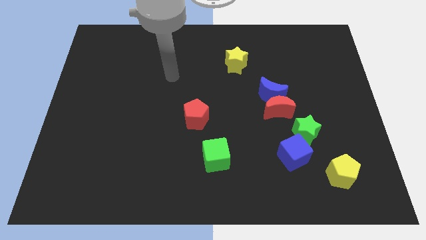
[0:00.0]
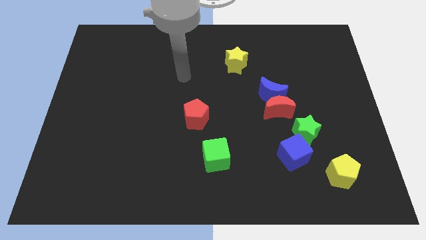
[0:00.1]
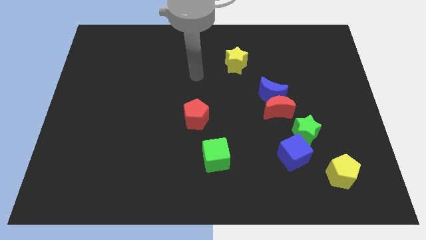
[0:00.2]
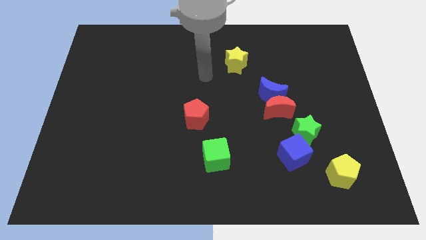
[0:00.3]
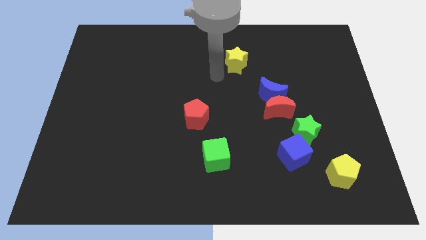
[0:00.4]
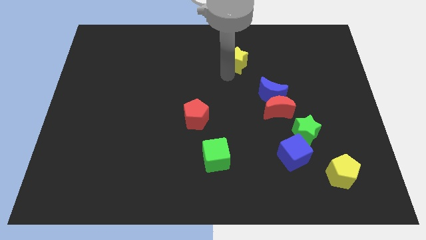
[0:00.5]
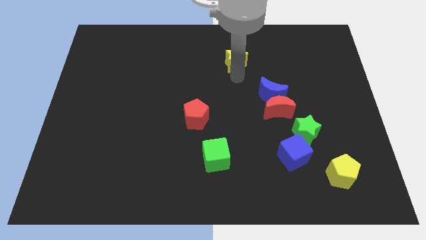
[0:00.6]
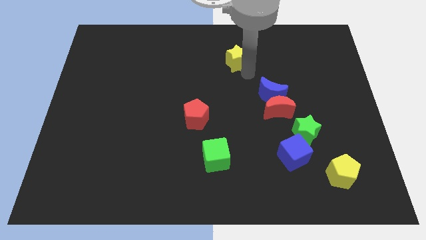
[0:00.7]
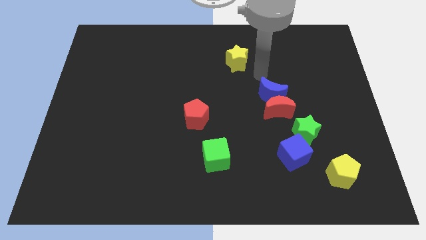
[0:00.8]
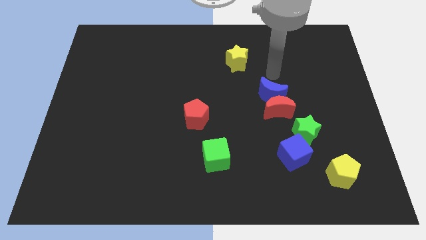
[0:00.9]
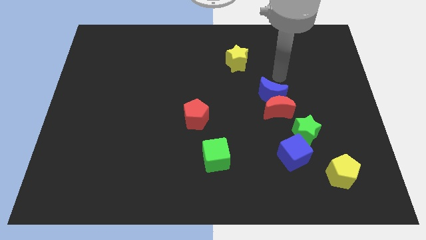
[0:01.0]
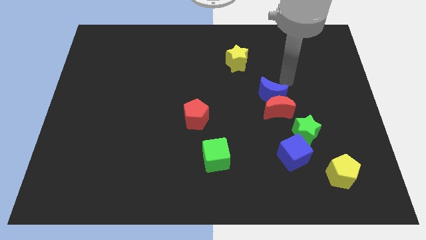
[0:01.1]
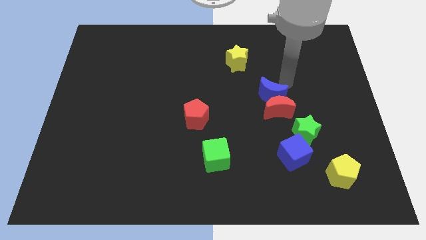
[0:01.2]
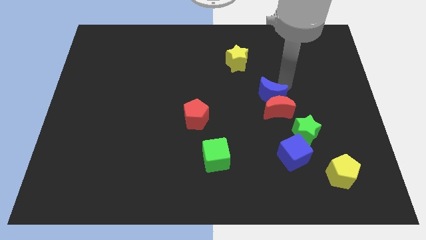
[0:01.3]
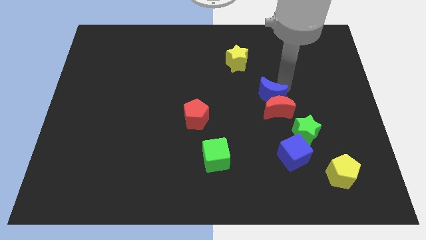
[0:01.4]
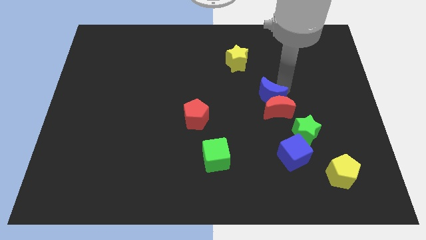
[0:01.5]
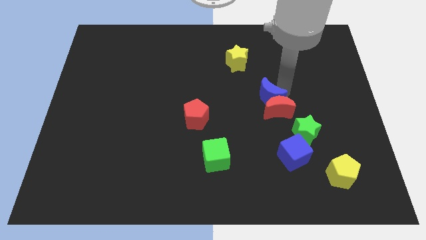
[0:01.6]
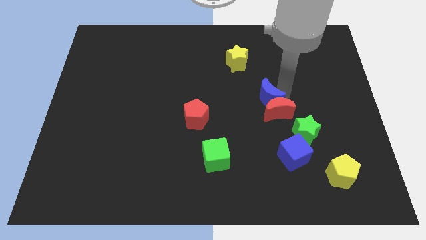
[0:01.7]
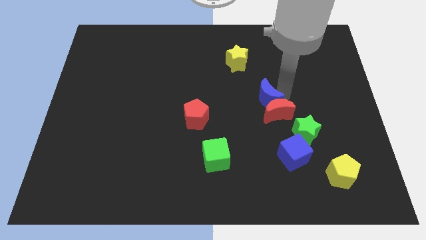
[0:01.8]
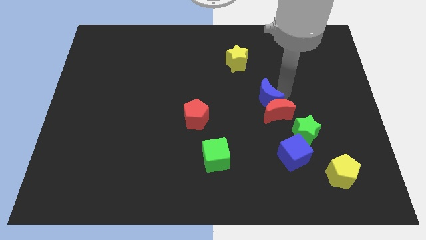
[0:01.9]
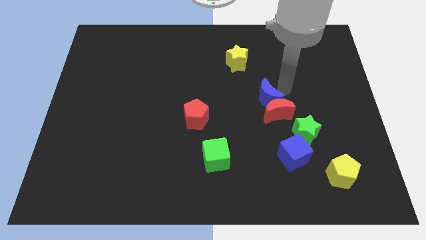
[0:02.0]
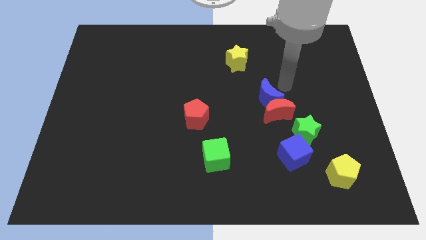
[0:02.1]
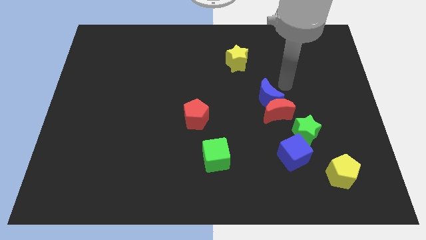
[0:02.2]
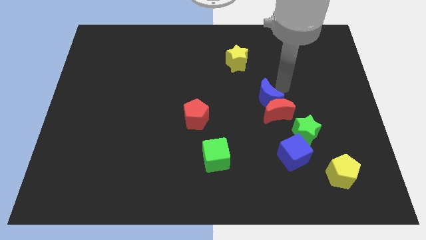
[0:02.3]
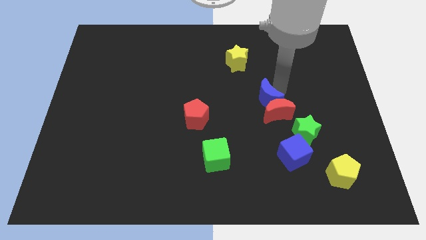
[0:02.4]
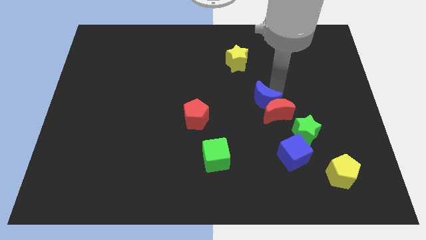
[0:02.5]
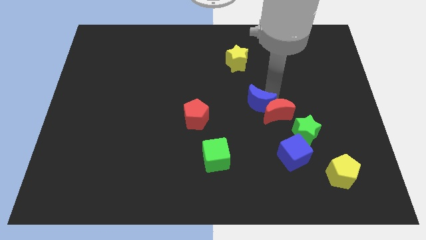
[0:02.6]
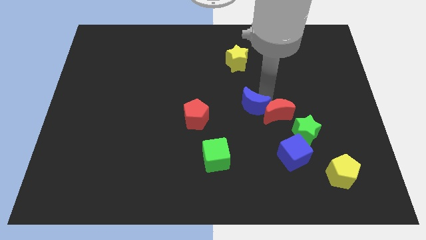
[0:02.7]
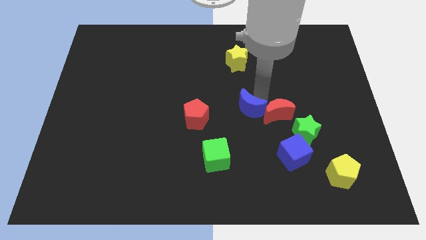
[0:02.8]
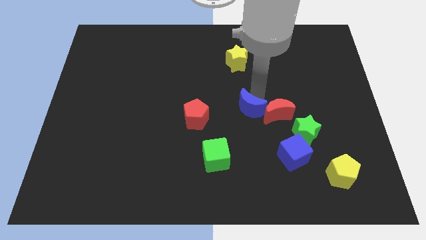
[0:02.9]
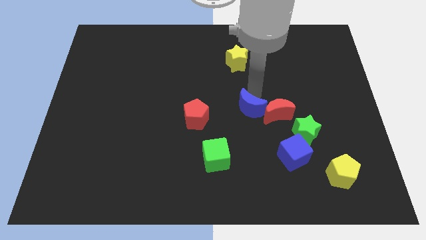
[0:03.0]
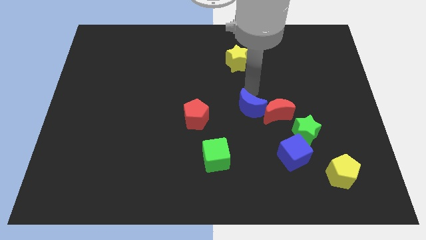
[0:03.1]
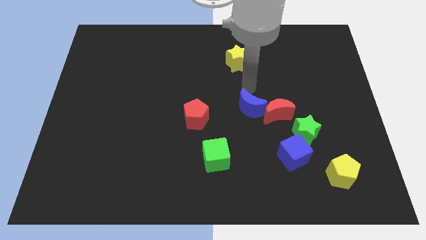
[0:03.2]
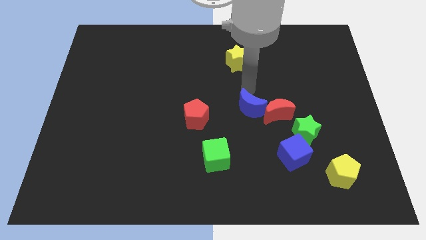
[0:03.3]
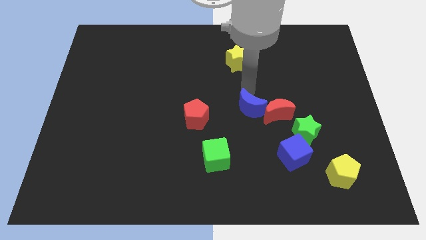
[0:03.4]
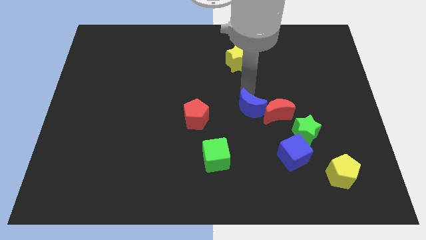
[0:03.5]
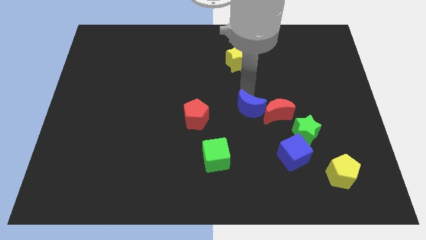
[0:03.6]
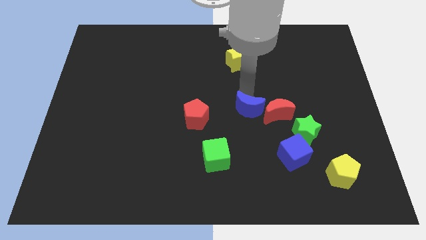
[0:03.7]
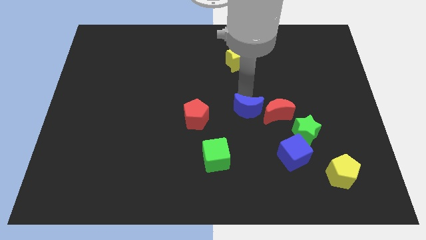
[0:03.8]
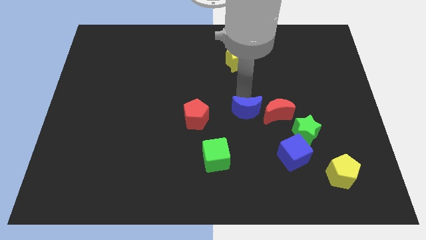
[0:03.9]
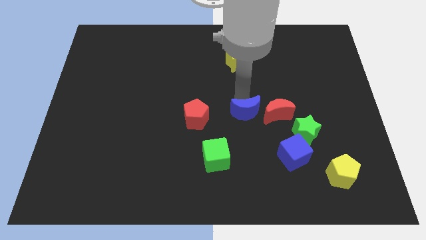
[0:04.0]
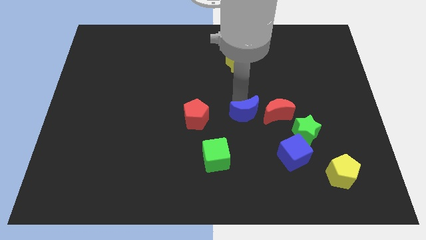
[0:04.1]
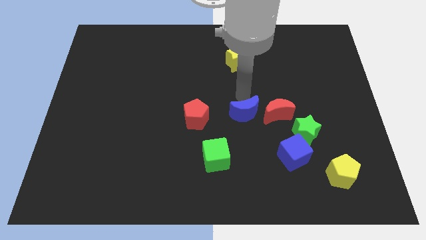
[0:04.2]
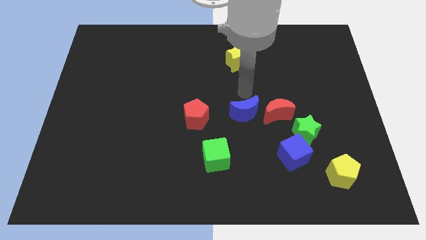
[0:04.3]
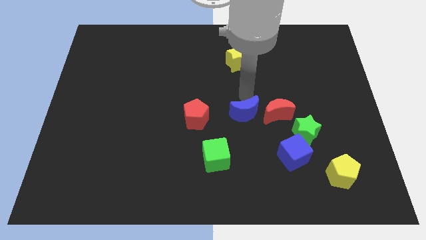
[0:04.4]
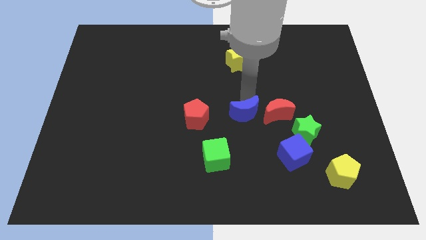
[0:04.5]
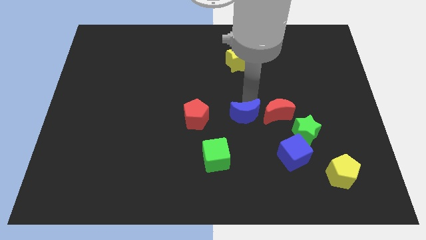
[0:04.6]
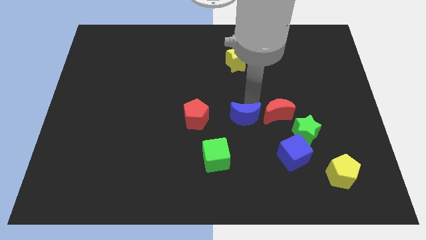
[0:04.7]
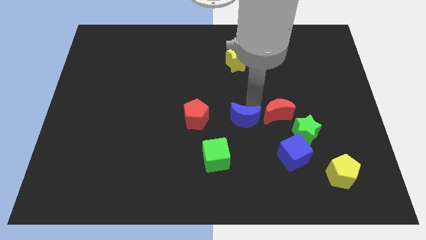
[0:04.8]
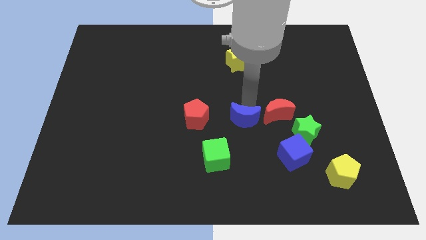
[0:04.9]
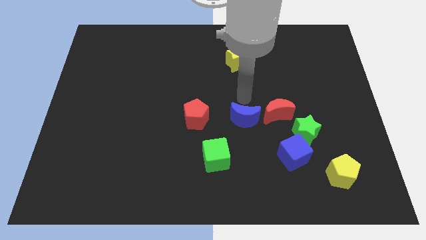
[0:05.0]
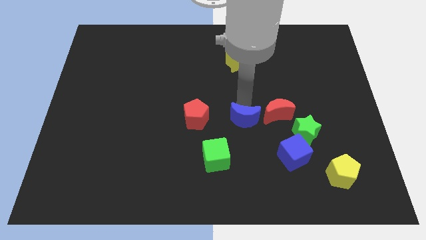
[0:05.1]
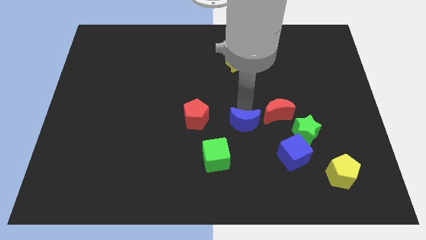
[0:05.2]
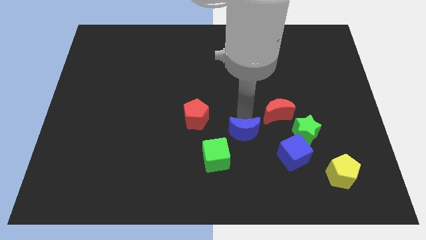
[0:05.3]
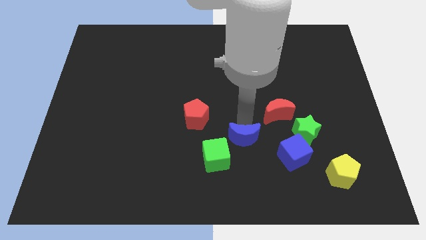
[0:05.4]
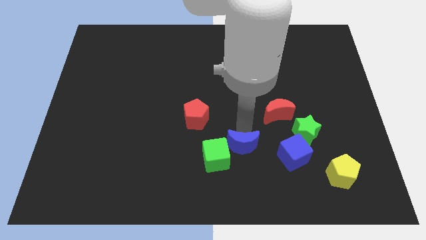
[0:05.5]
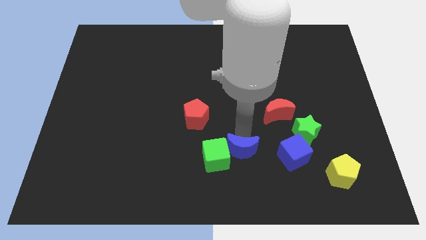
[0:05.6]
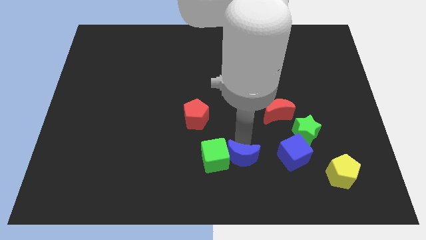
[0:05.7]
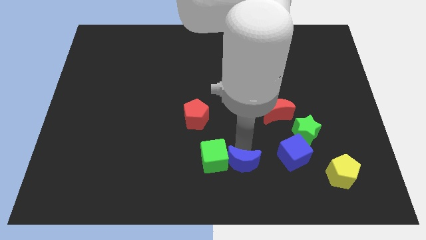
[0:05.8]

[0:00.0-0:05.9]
put the blue moon to the bottom side
